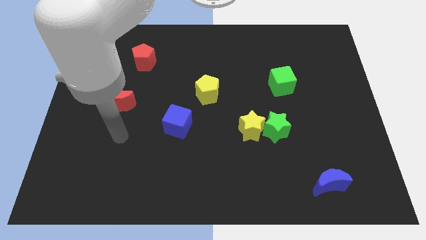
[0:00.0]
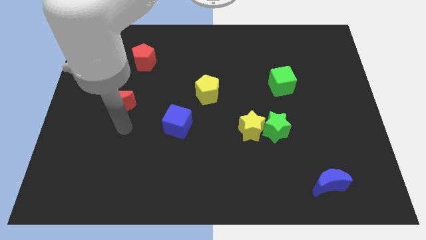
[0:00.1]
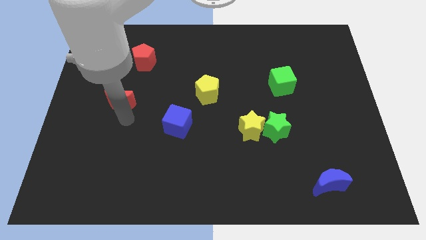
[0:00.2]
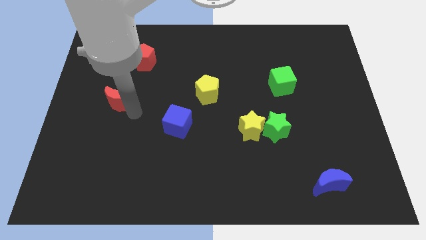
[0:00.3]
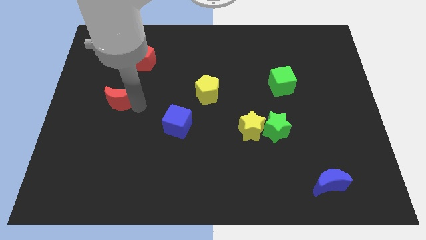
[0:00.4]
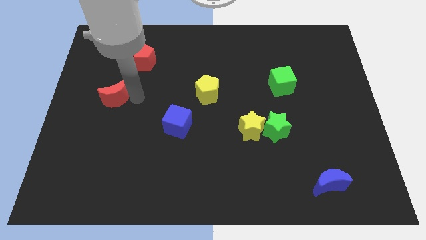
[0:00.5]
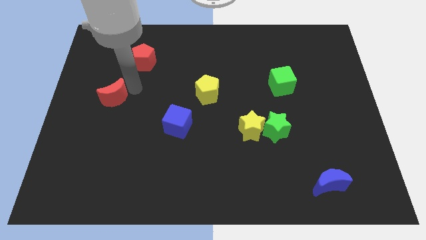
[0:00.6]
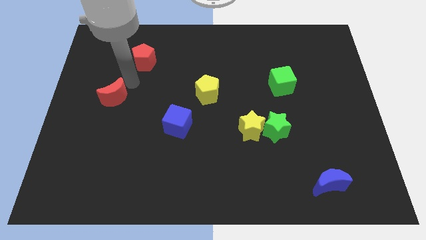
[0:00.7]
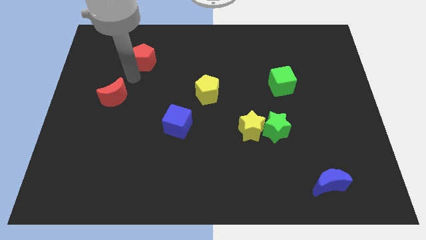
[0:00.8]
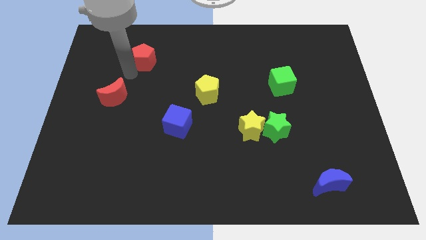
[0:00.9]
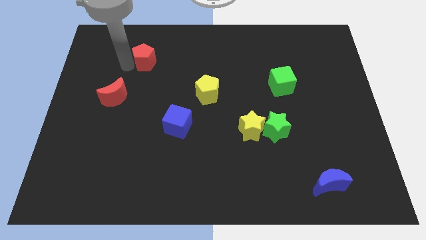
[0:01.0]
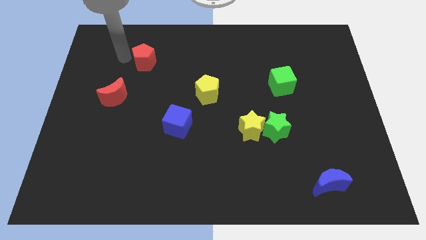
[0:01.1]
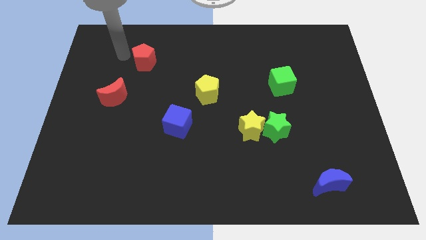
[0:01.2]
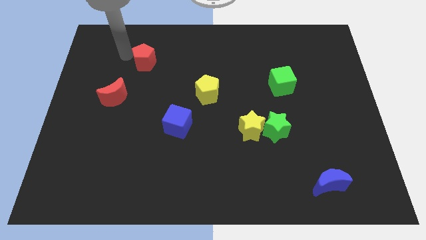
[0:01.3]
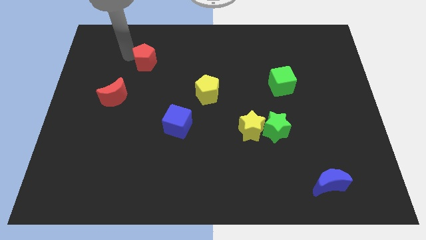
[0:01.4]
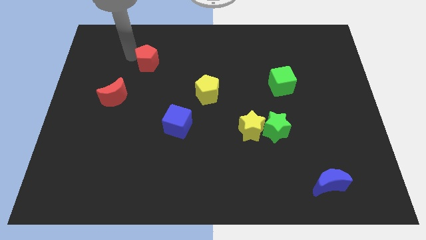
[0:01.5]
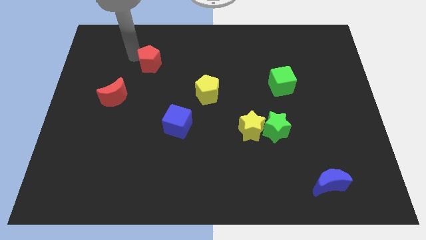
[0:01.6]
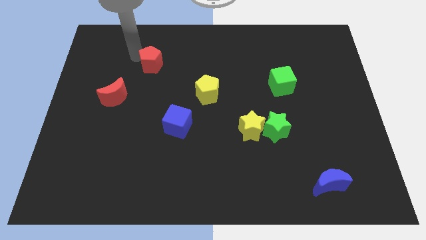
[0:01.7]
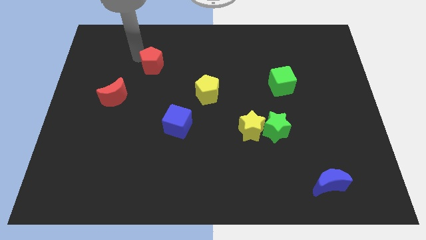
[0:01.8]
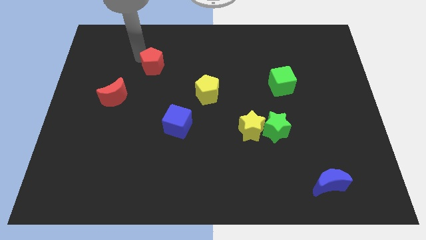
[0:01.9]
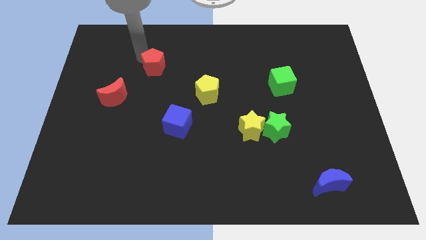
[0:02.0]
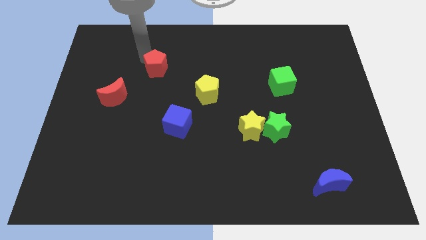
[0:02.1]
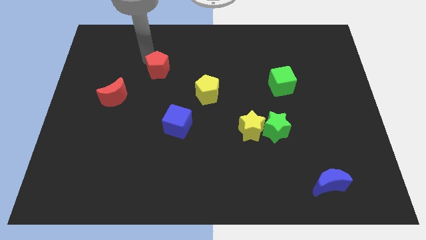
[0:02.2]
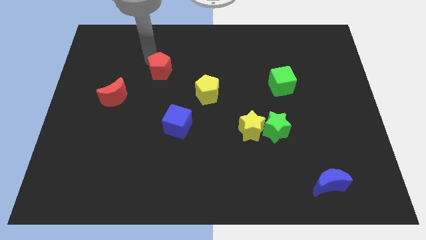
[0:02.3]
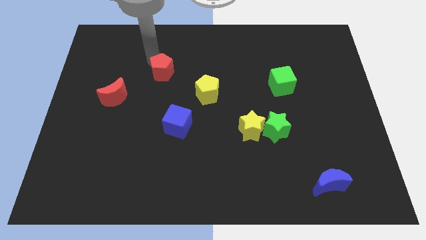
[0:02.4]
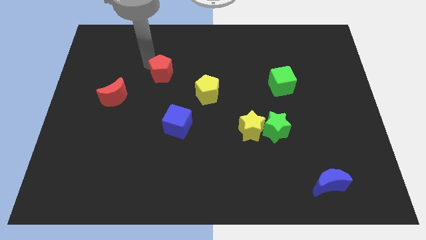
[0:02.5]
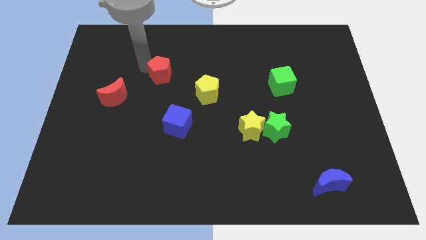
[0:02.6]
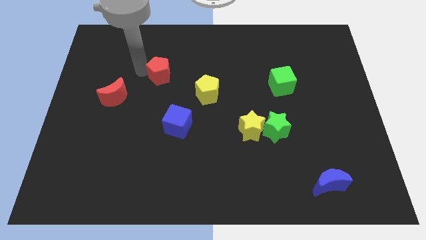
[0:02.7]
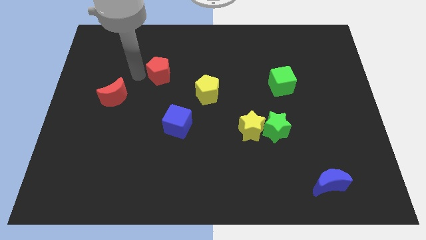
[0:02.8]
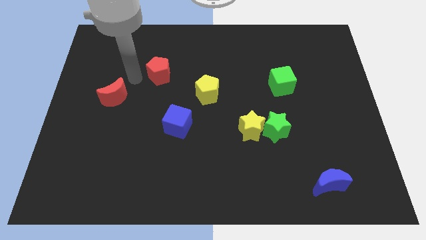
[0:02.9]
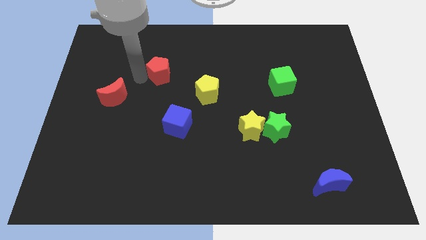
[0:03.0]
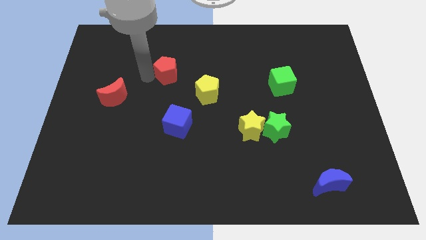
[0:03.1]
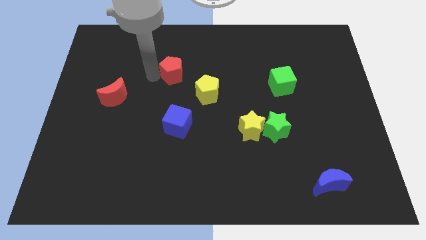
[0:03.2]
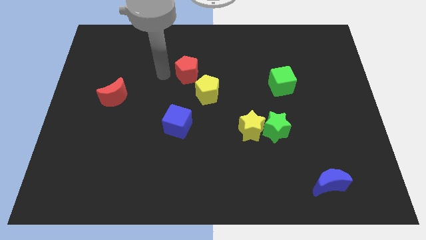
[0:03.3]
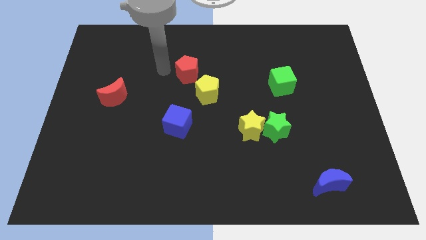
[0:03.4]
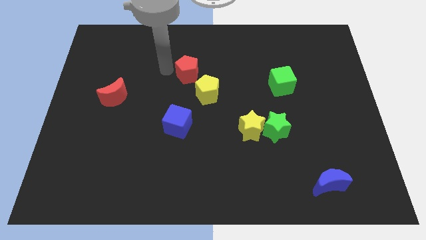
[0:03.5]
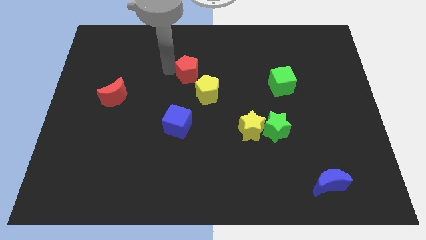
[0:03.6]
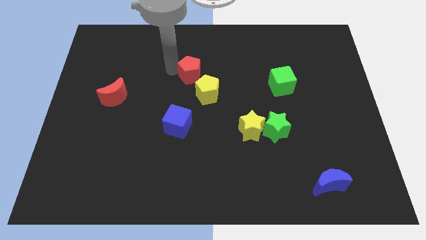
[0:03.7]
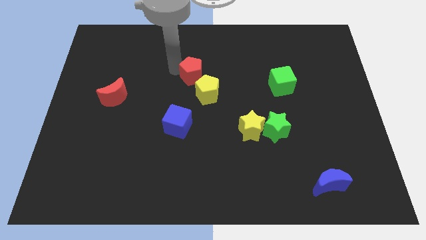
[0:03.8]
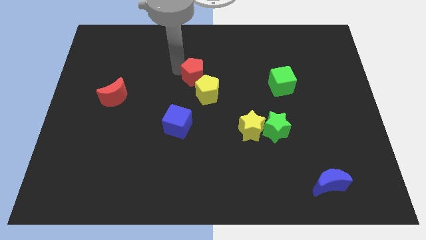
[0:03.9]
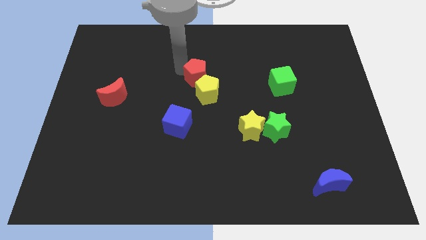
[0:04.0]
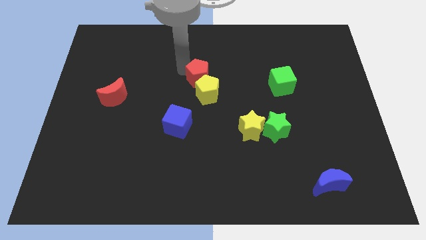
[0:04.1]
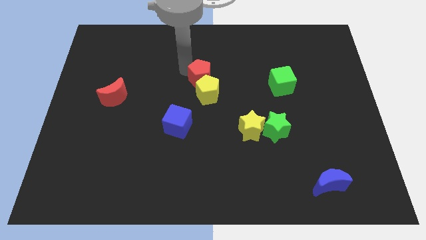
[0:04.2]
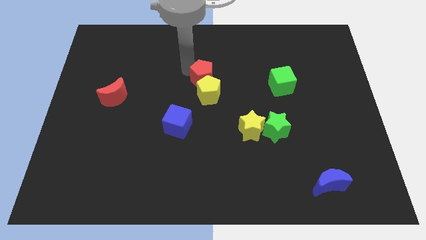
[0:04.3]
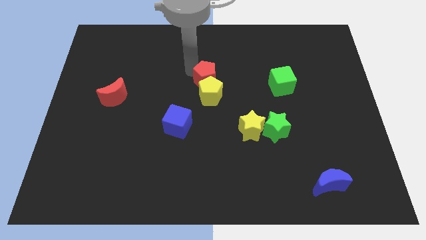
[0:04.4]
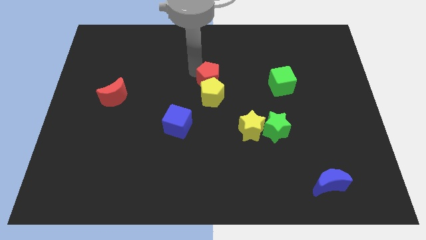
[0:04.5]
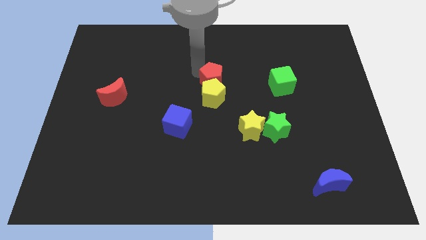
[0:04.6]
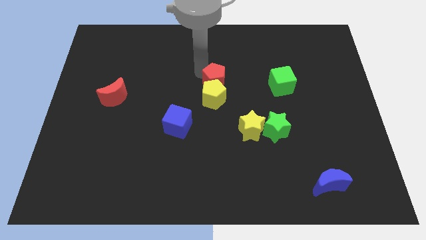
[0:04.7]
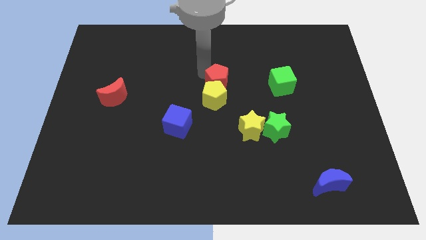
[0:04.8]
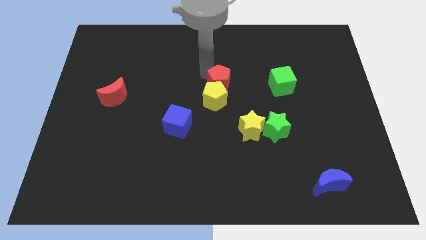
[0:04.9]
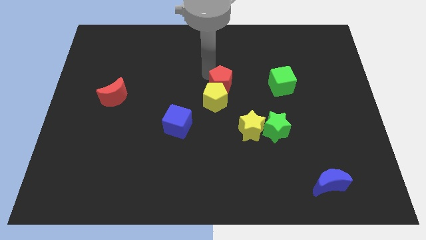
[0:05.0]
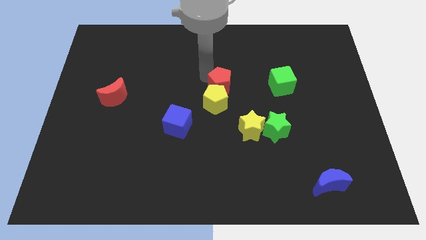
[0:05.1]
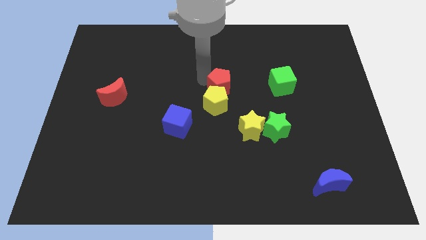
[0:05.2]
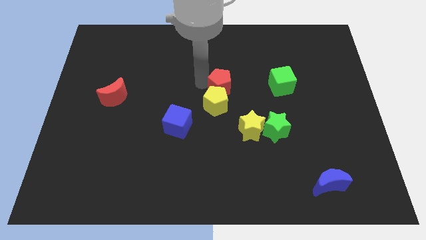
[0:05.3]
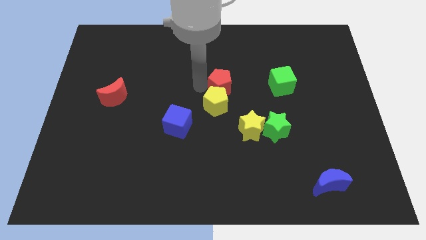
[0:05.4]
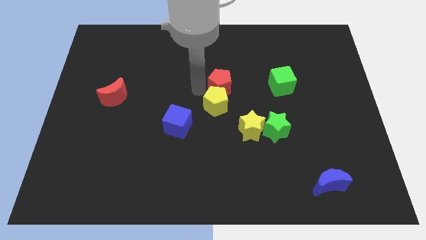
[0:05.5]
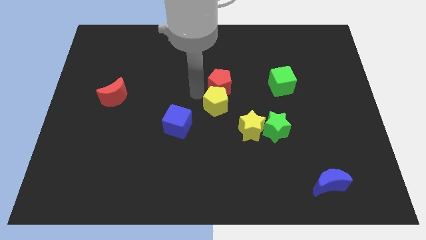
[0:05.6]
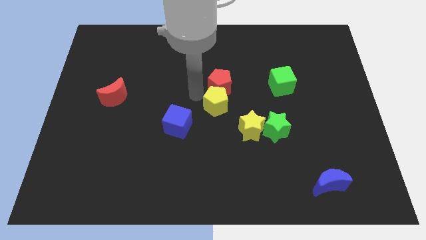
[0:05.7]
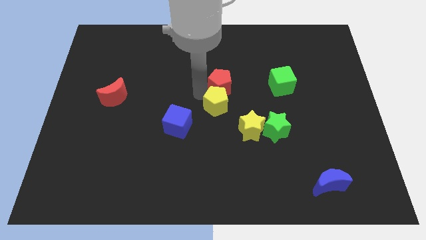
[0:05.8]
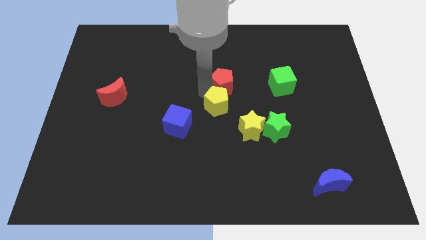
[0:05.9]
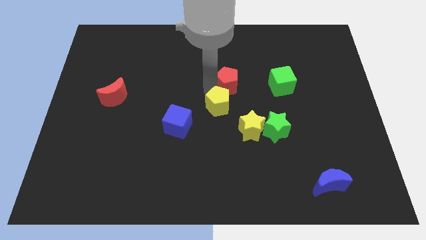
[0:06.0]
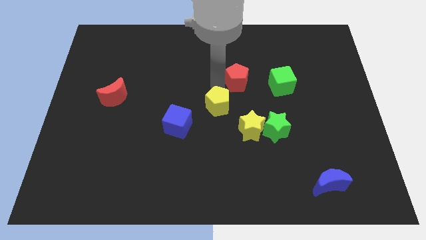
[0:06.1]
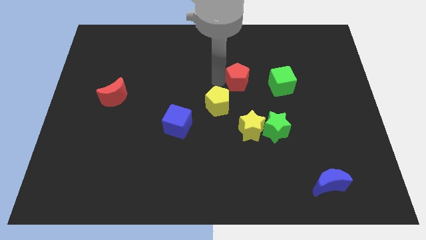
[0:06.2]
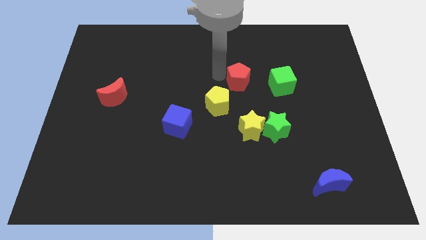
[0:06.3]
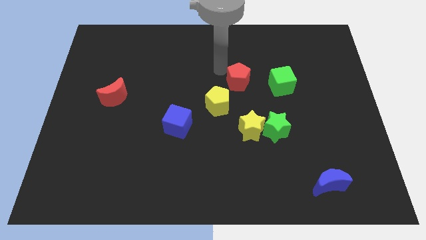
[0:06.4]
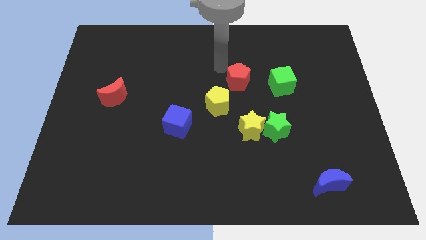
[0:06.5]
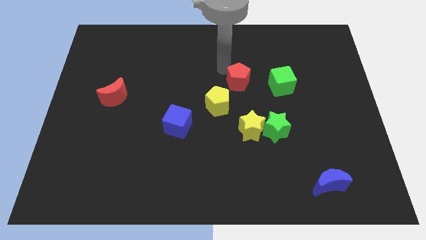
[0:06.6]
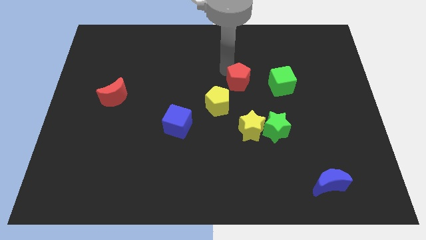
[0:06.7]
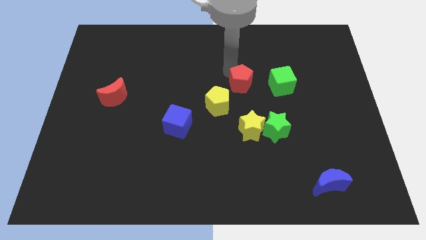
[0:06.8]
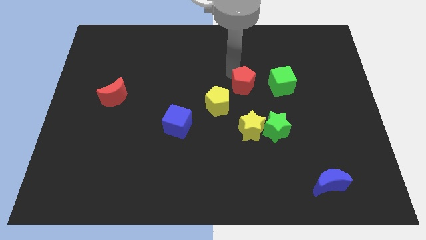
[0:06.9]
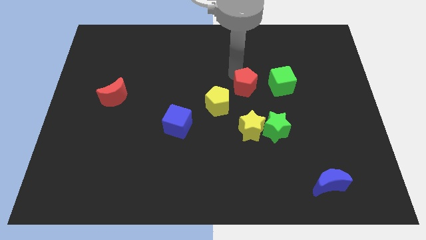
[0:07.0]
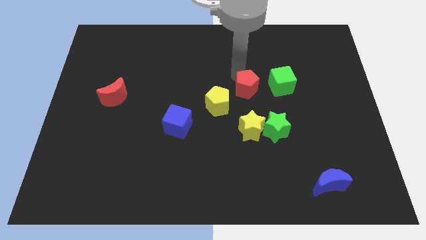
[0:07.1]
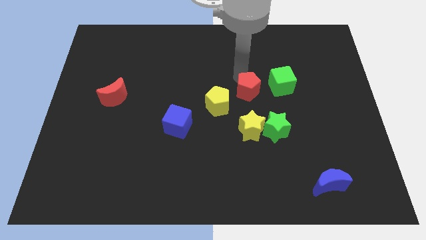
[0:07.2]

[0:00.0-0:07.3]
slide the red pentagon to the bottom left side of the green cube

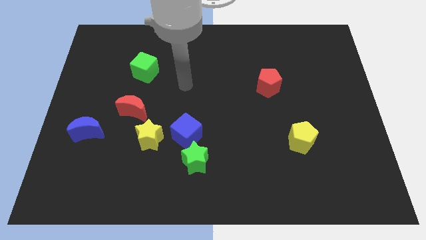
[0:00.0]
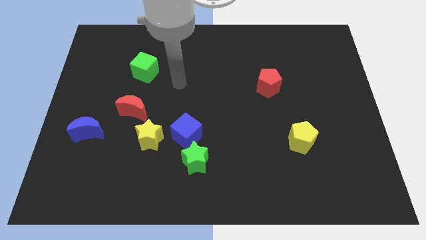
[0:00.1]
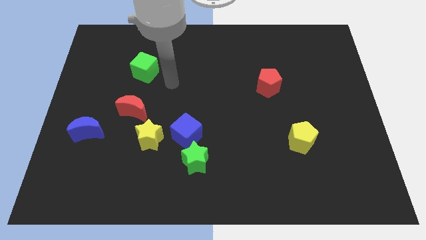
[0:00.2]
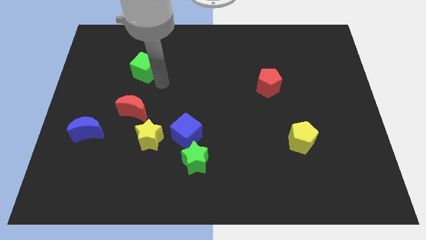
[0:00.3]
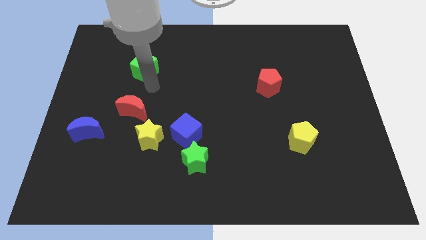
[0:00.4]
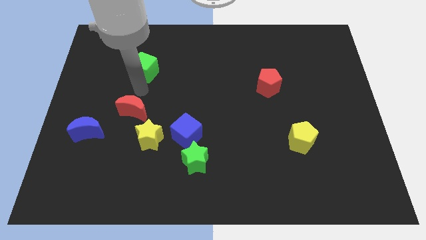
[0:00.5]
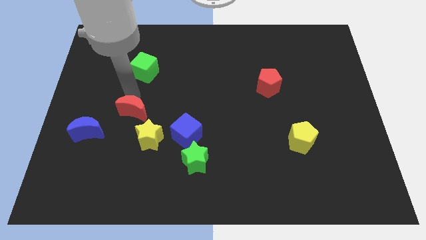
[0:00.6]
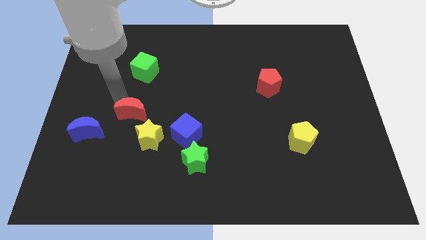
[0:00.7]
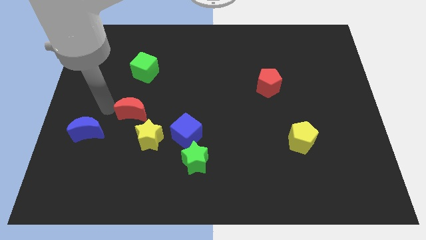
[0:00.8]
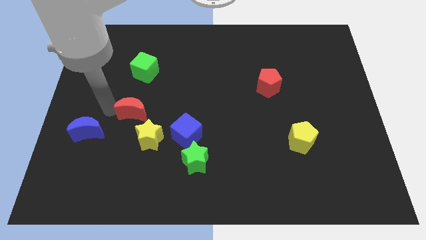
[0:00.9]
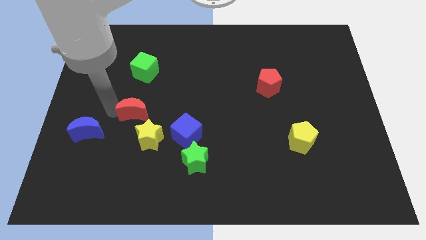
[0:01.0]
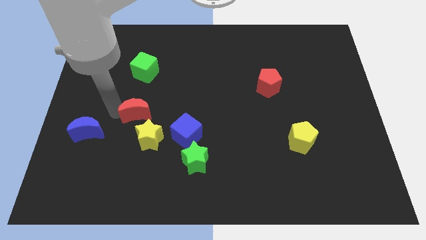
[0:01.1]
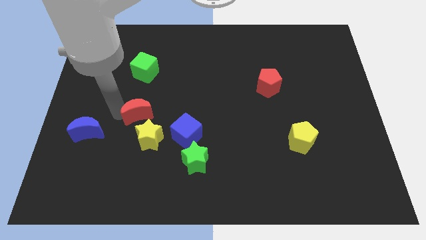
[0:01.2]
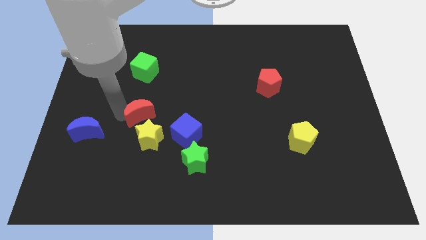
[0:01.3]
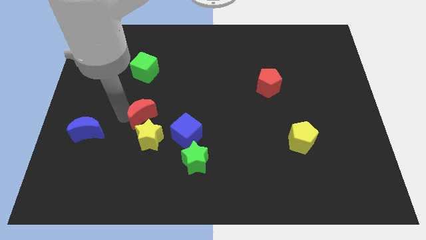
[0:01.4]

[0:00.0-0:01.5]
slide the red moon to the top left of the blue cube
